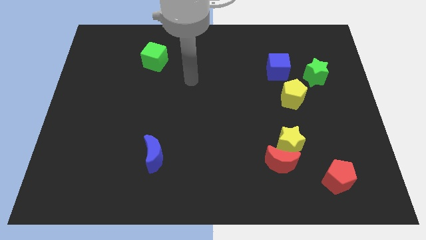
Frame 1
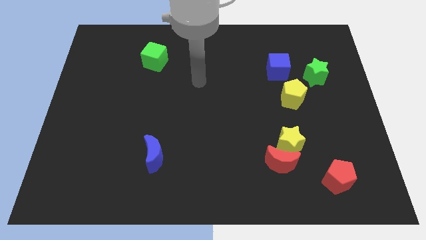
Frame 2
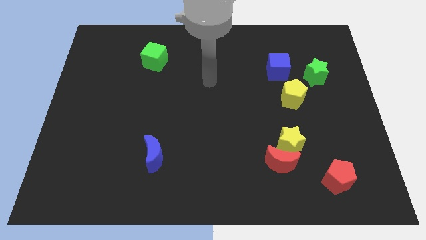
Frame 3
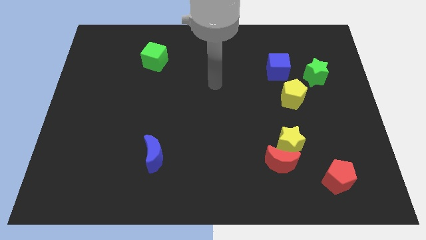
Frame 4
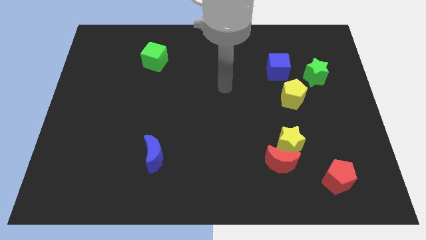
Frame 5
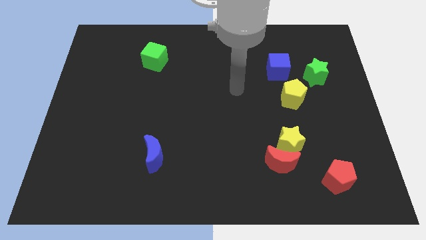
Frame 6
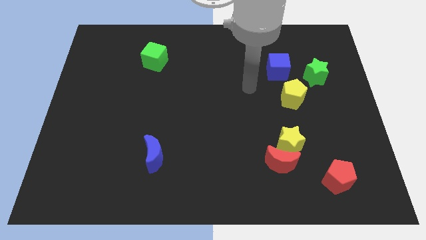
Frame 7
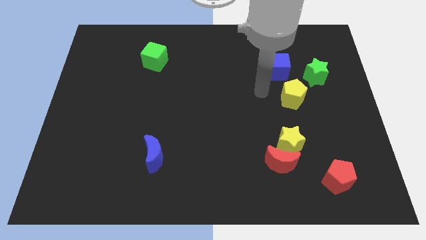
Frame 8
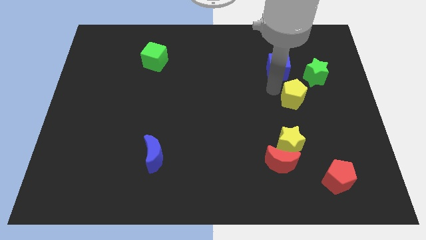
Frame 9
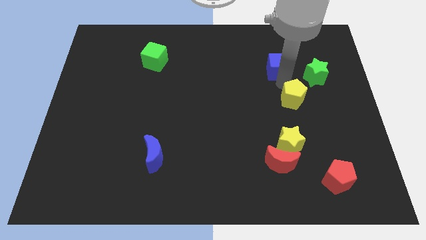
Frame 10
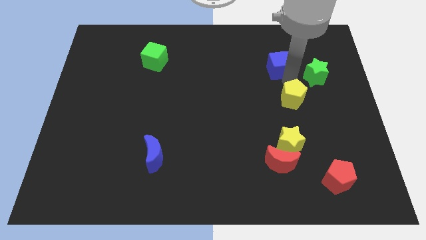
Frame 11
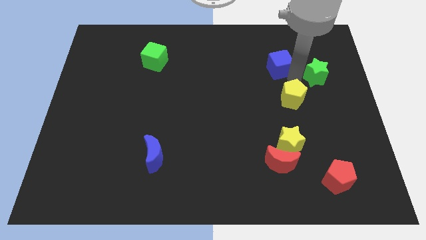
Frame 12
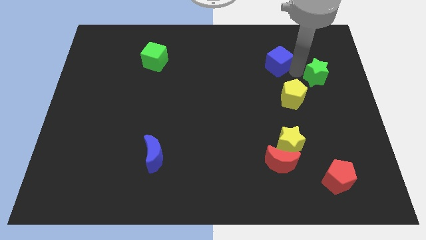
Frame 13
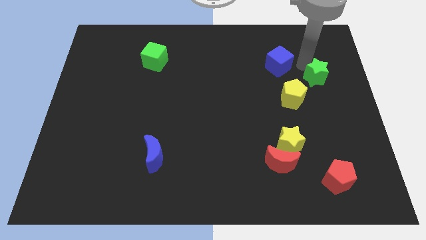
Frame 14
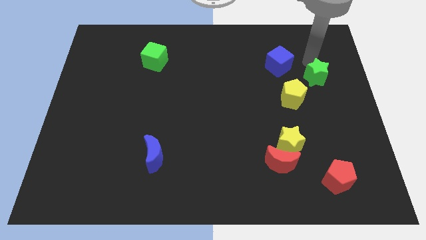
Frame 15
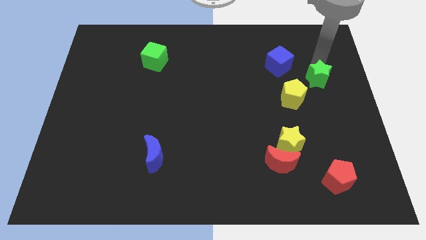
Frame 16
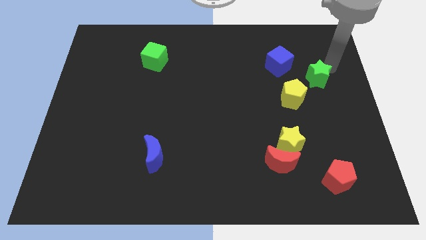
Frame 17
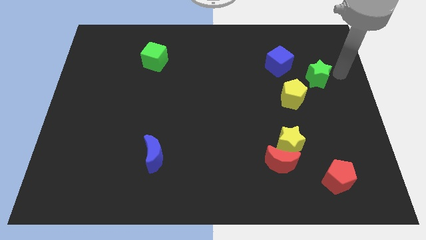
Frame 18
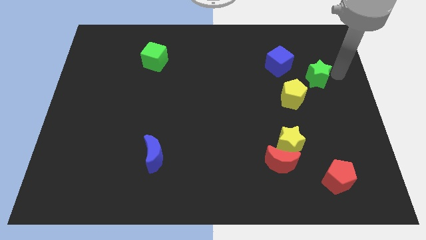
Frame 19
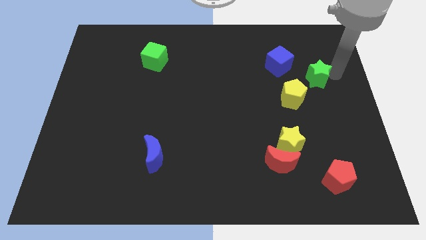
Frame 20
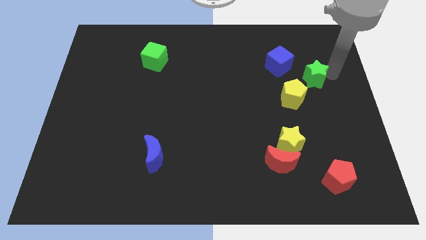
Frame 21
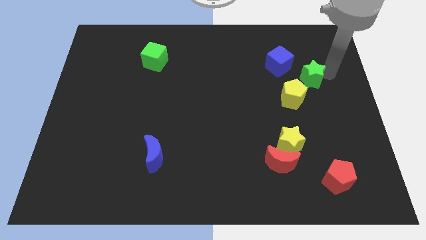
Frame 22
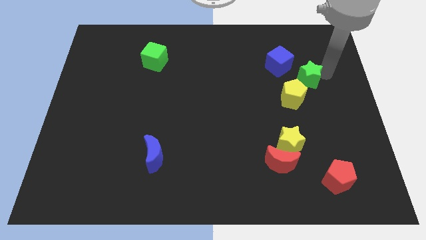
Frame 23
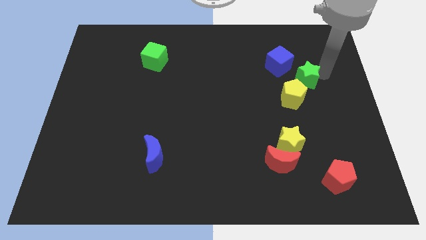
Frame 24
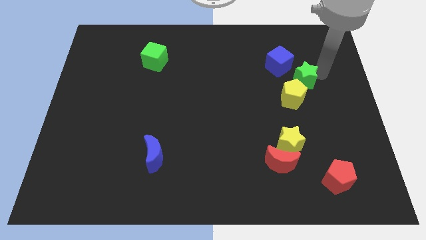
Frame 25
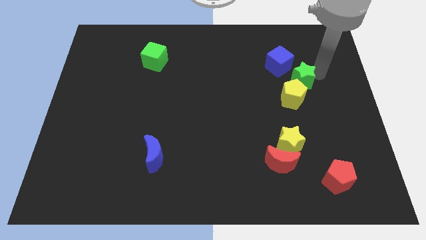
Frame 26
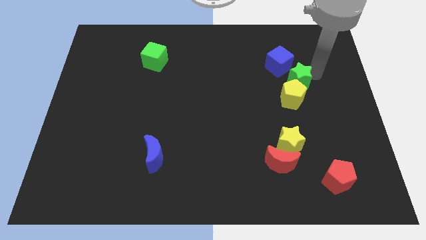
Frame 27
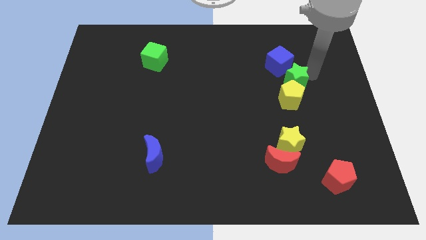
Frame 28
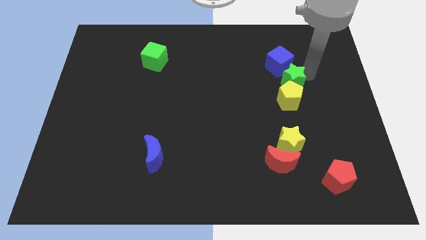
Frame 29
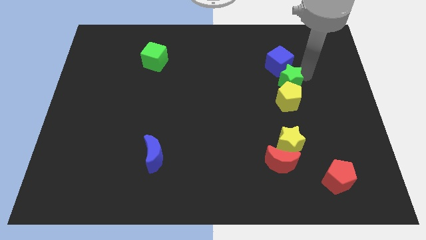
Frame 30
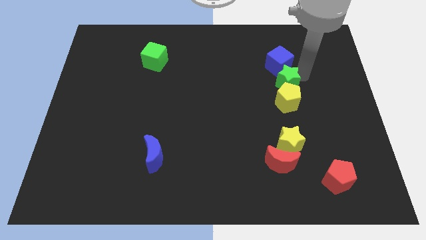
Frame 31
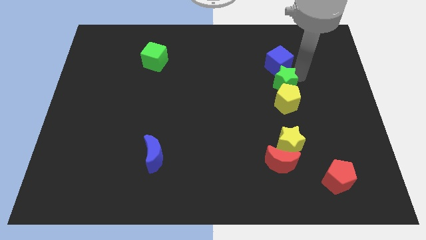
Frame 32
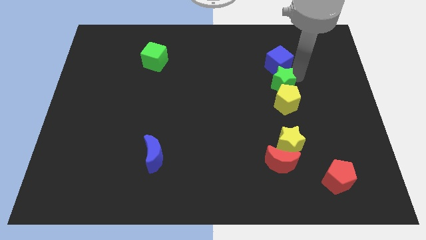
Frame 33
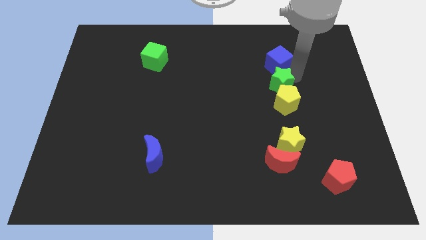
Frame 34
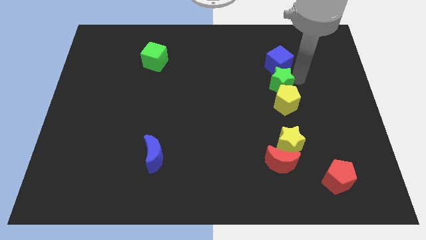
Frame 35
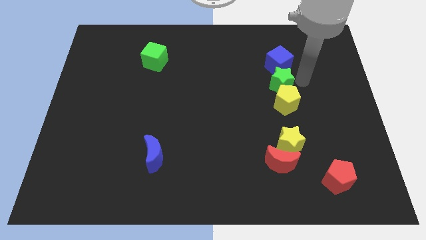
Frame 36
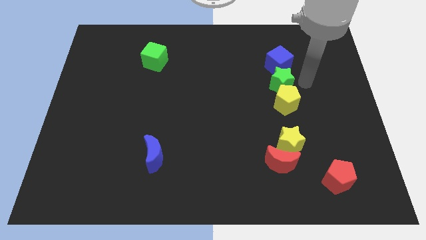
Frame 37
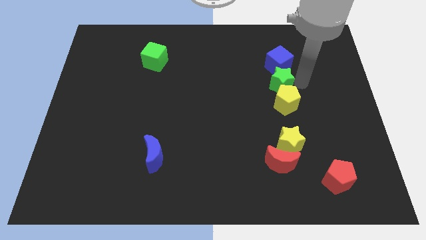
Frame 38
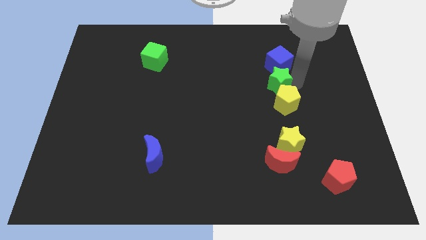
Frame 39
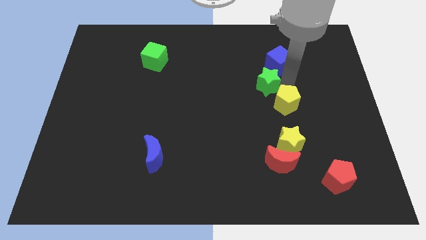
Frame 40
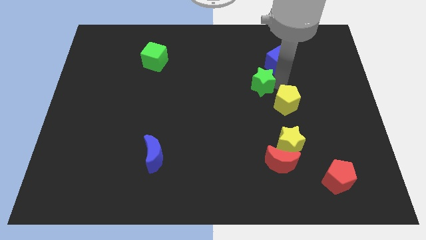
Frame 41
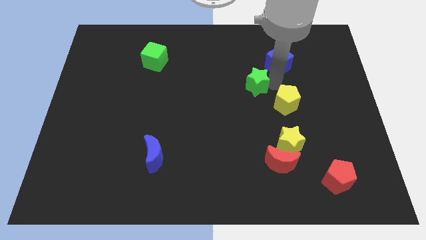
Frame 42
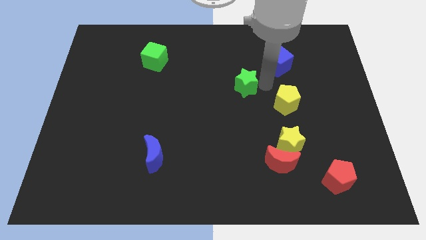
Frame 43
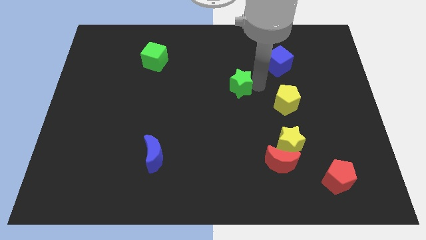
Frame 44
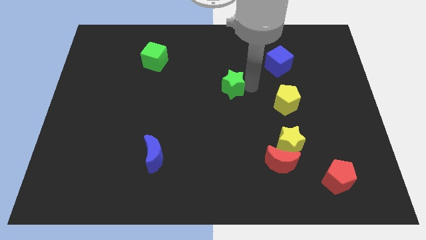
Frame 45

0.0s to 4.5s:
move the green star left

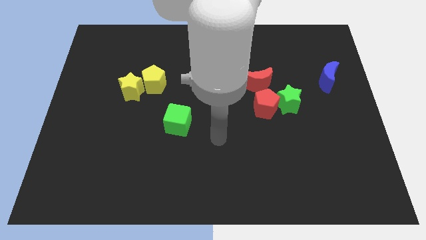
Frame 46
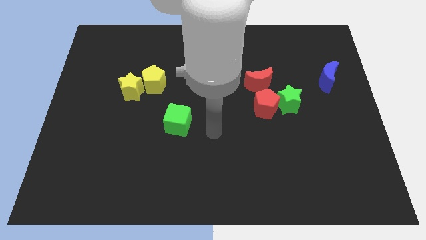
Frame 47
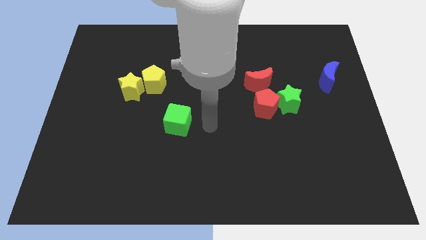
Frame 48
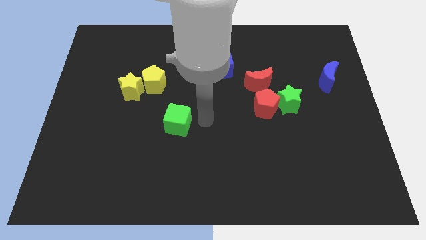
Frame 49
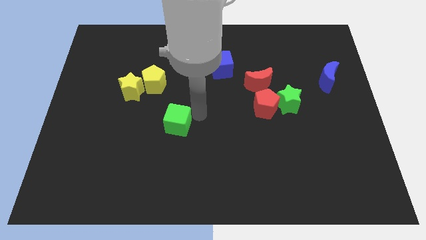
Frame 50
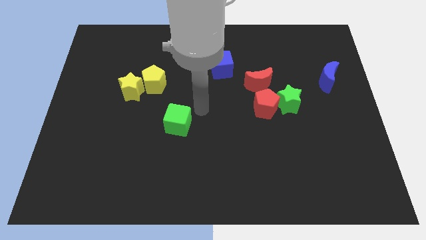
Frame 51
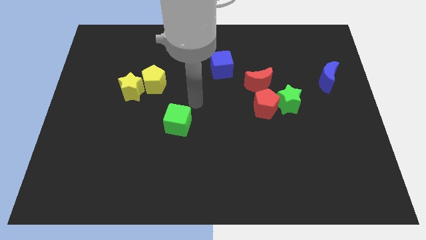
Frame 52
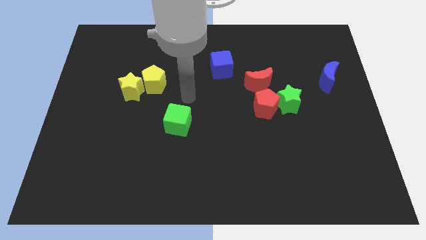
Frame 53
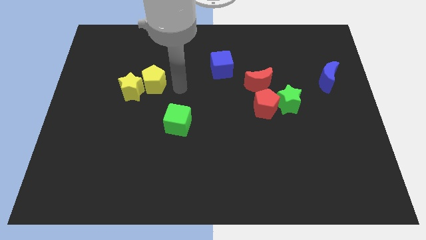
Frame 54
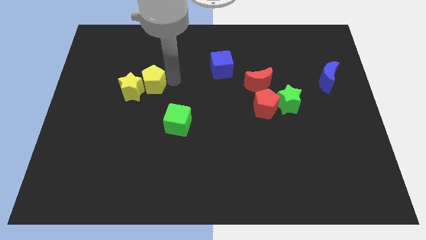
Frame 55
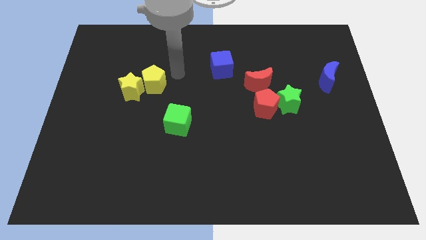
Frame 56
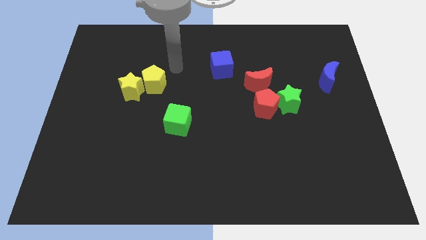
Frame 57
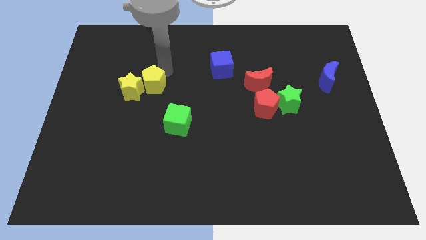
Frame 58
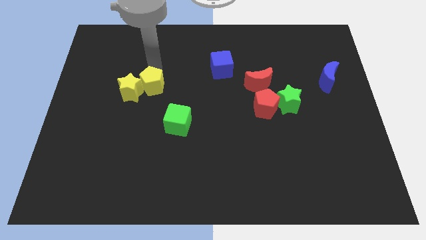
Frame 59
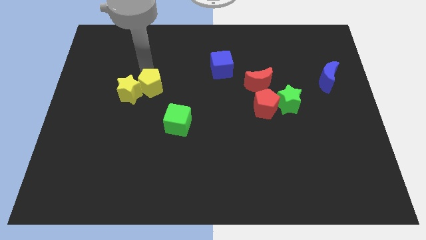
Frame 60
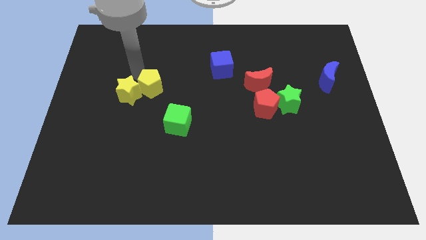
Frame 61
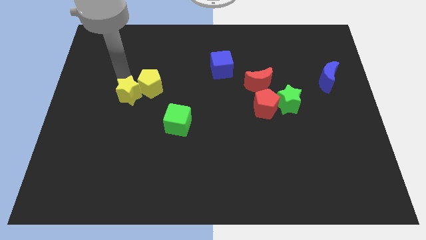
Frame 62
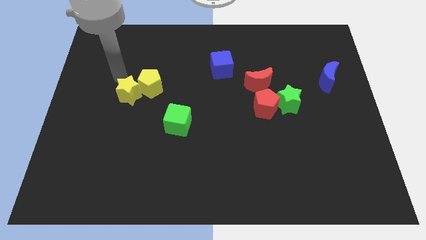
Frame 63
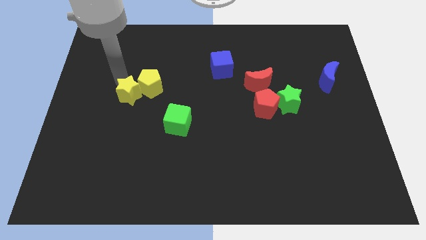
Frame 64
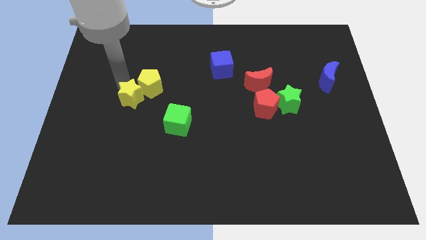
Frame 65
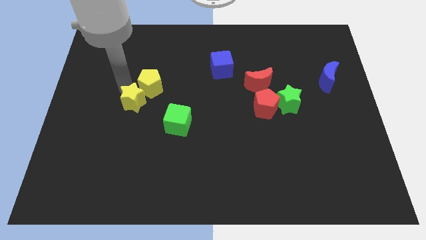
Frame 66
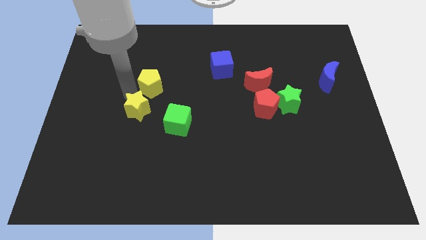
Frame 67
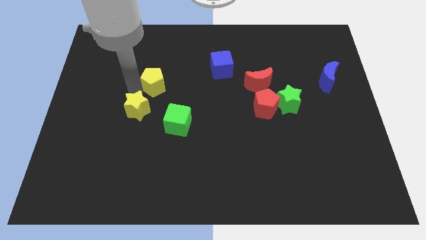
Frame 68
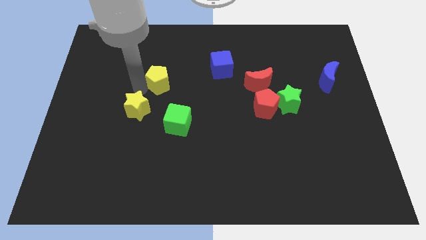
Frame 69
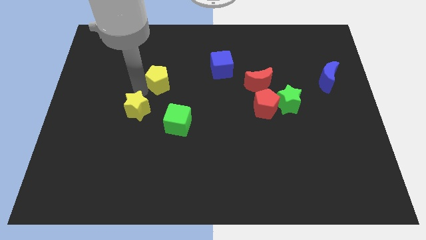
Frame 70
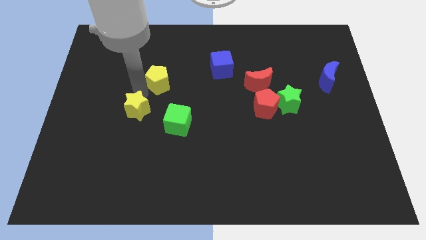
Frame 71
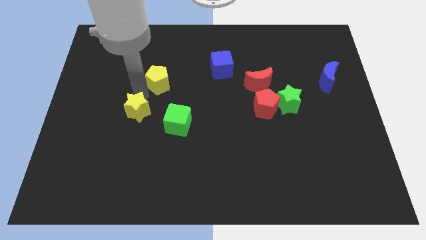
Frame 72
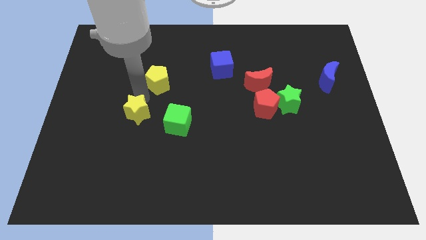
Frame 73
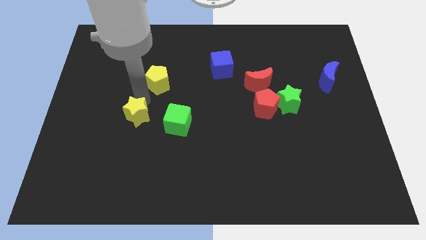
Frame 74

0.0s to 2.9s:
slightly move the yellow star down

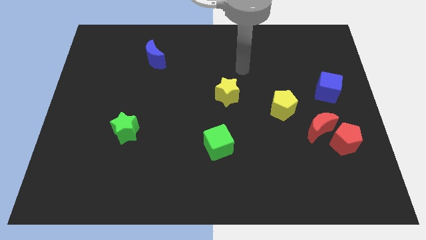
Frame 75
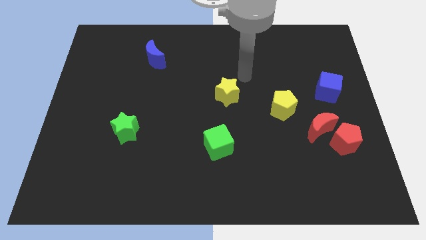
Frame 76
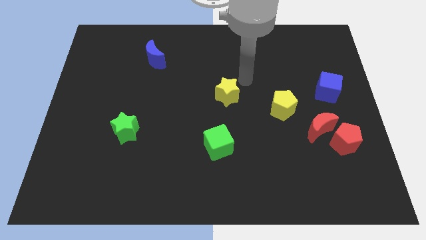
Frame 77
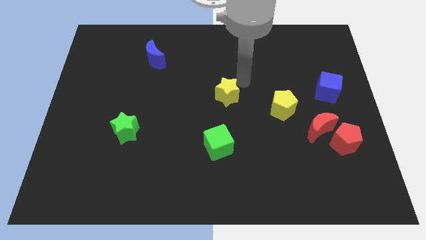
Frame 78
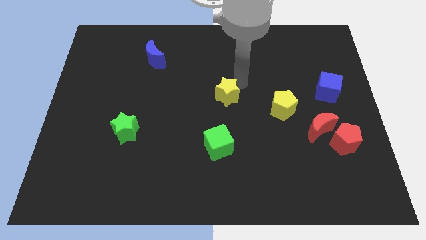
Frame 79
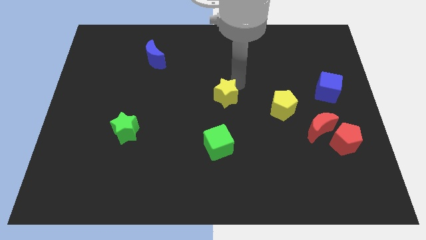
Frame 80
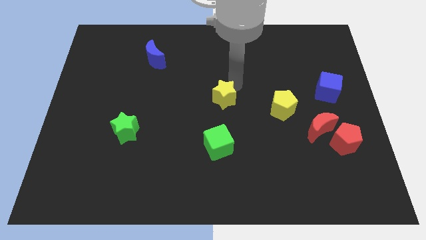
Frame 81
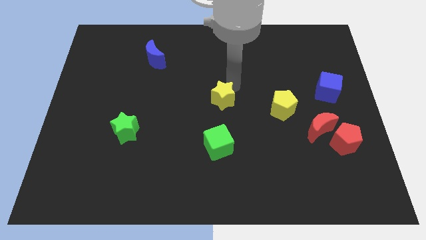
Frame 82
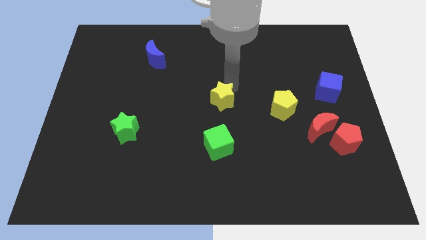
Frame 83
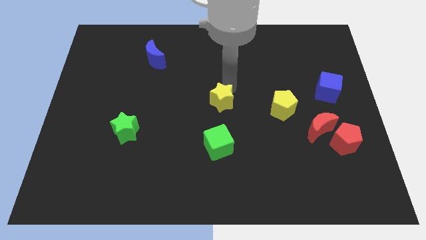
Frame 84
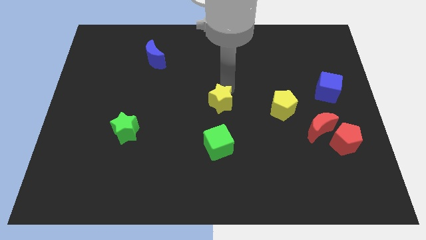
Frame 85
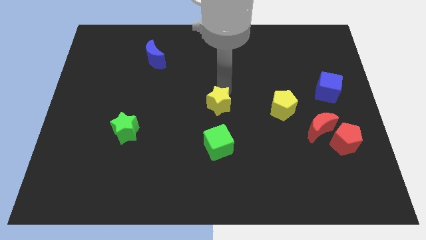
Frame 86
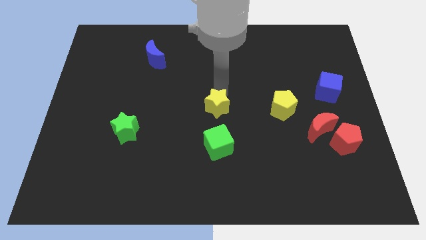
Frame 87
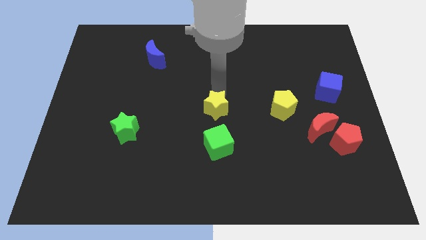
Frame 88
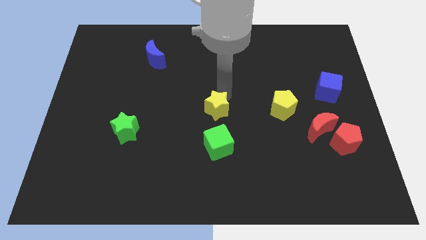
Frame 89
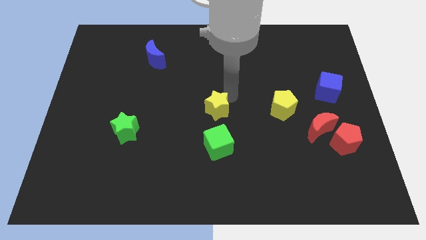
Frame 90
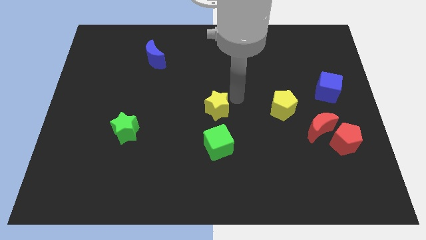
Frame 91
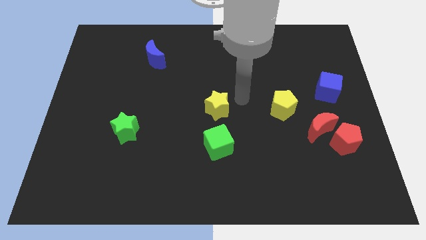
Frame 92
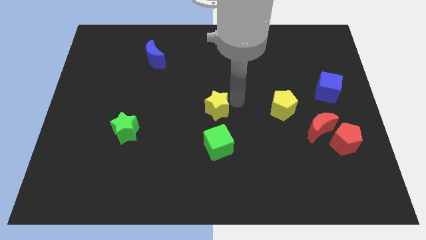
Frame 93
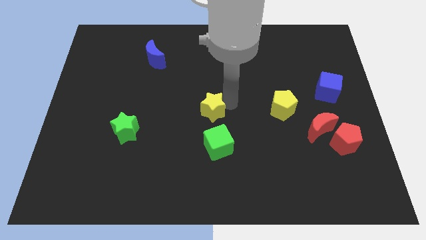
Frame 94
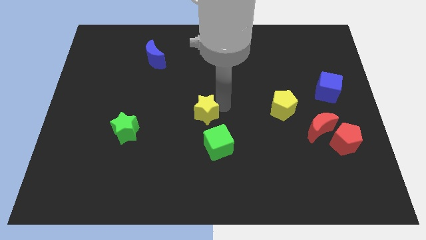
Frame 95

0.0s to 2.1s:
slide the yellow star diagonally down and to the left somewhat
